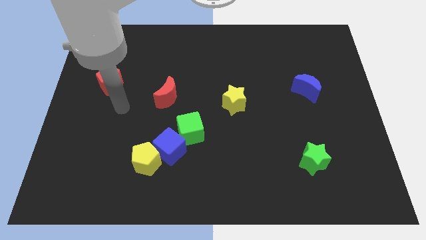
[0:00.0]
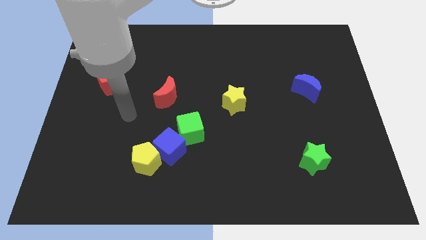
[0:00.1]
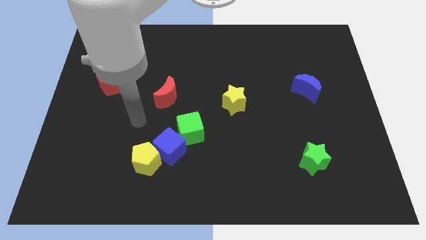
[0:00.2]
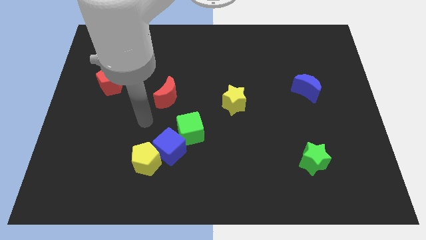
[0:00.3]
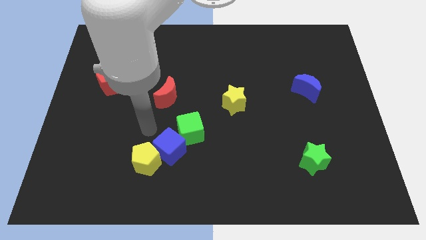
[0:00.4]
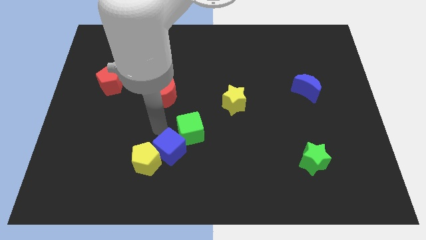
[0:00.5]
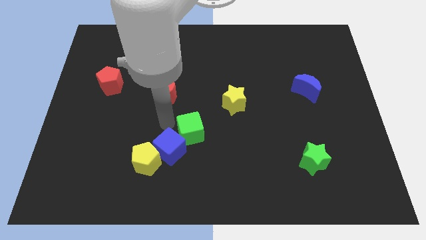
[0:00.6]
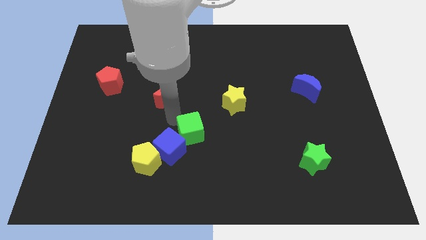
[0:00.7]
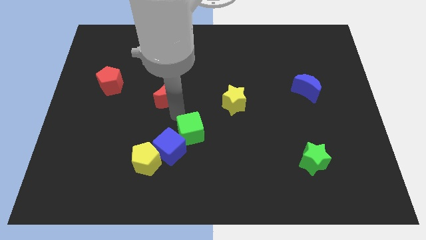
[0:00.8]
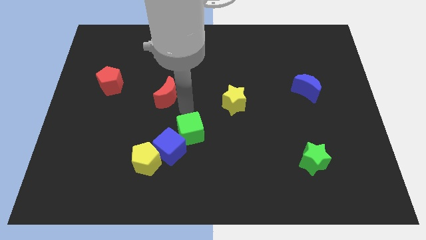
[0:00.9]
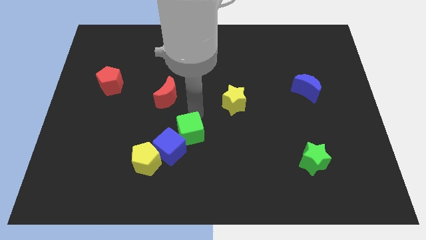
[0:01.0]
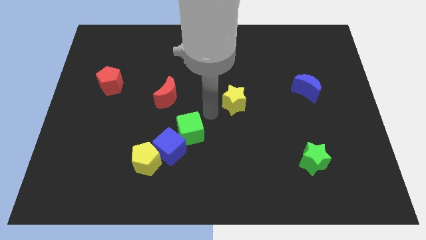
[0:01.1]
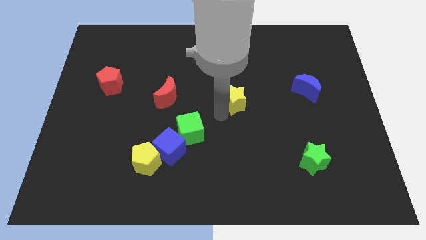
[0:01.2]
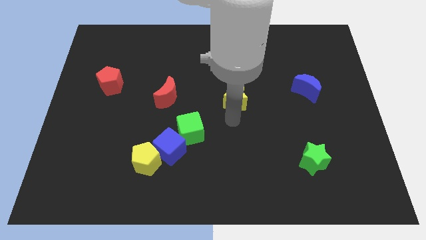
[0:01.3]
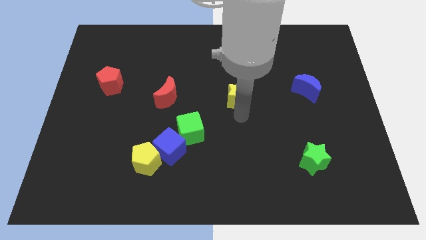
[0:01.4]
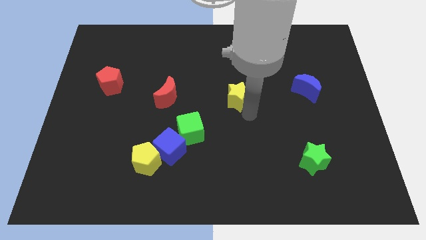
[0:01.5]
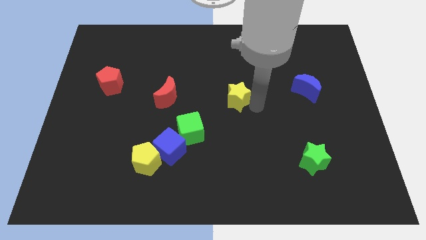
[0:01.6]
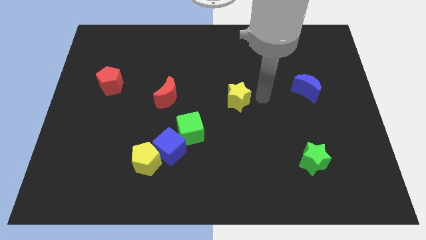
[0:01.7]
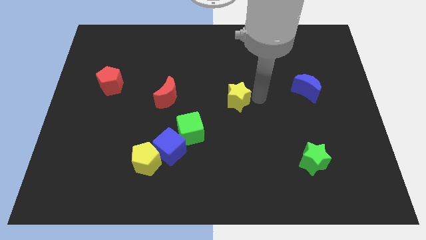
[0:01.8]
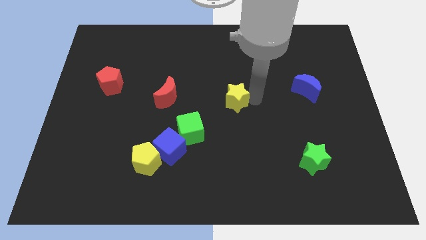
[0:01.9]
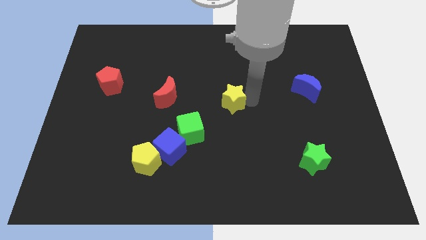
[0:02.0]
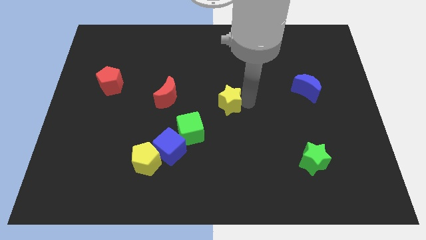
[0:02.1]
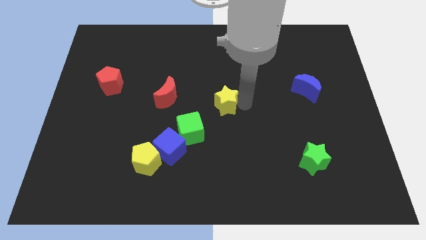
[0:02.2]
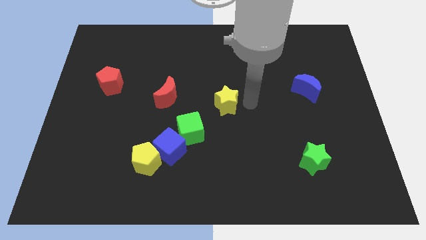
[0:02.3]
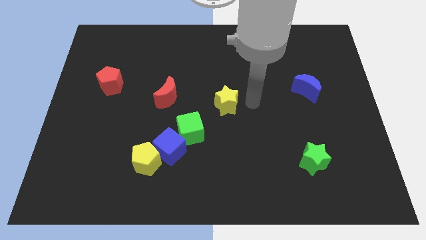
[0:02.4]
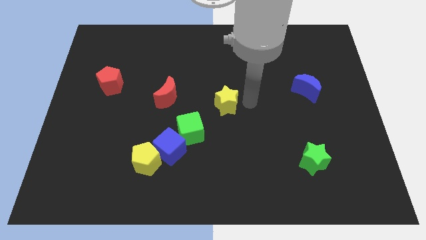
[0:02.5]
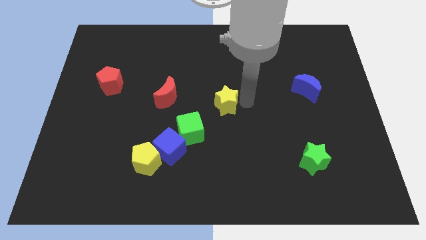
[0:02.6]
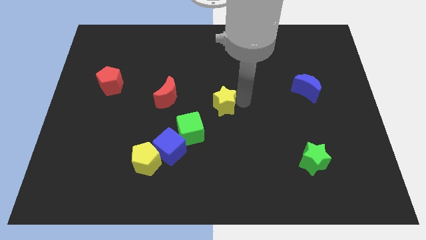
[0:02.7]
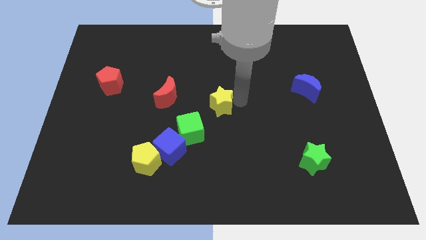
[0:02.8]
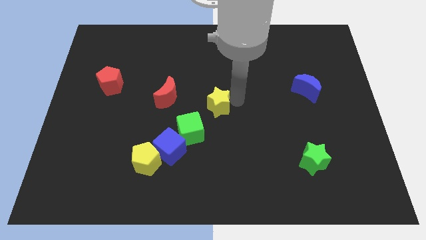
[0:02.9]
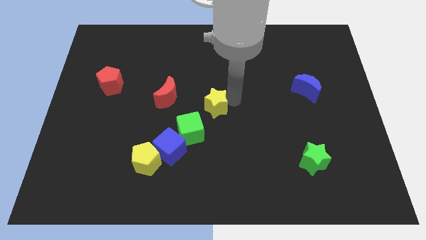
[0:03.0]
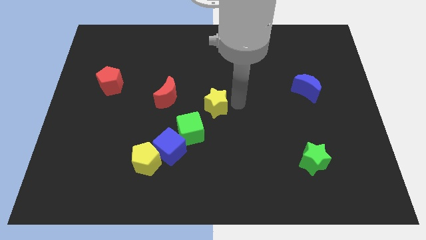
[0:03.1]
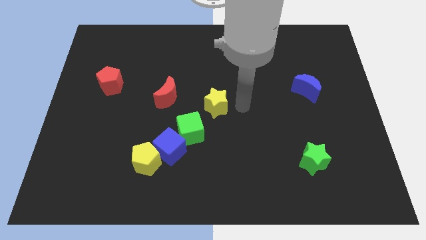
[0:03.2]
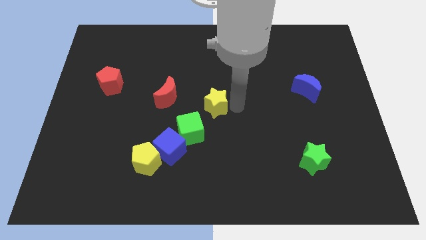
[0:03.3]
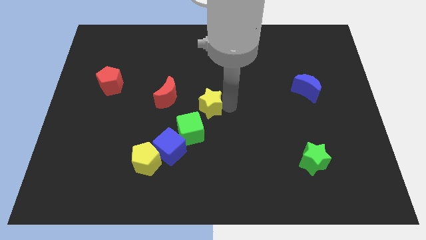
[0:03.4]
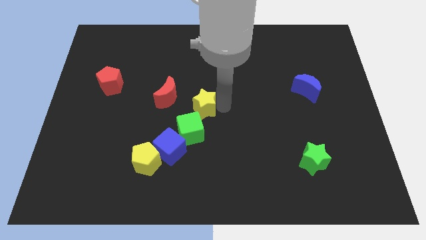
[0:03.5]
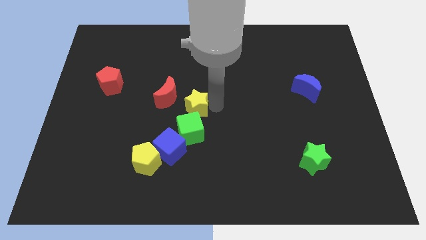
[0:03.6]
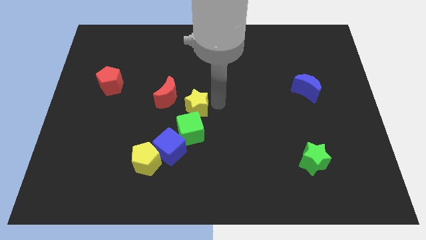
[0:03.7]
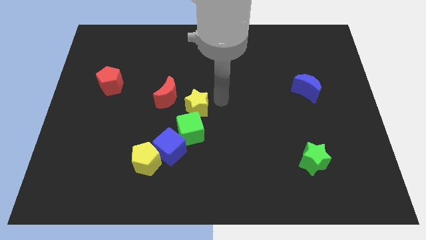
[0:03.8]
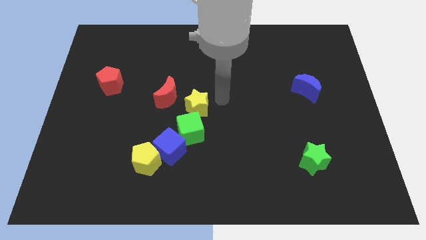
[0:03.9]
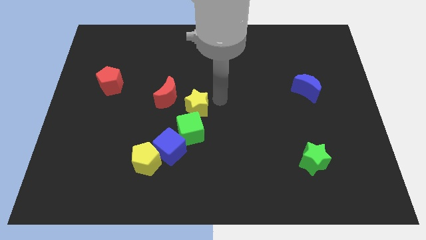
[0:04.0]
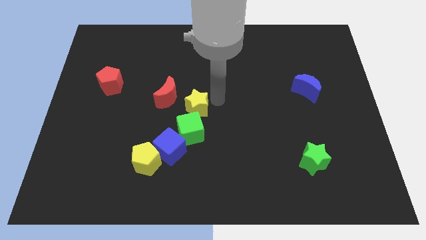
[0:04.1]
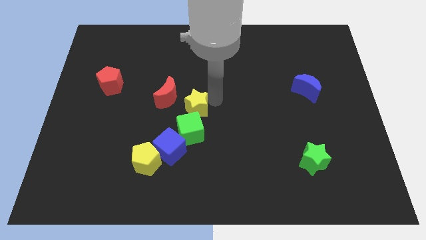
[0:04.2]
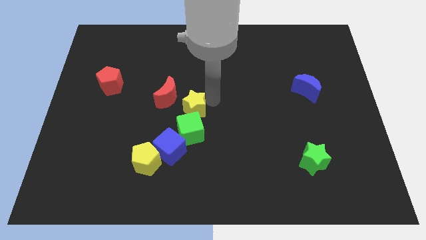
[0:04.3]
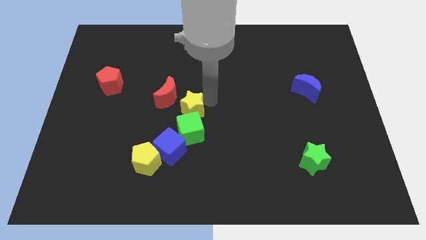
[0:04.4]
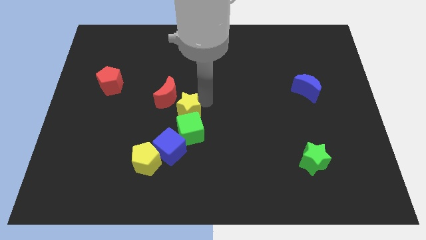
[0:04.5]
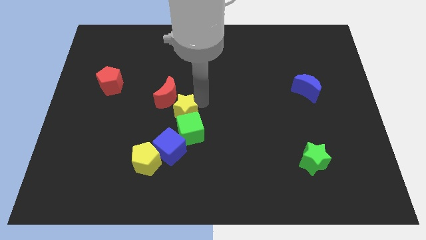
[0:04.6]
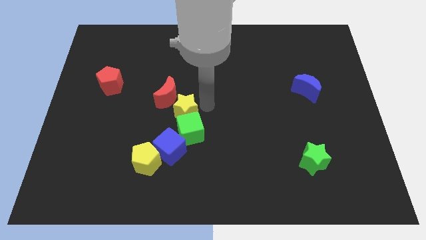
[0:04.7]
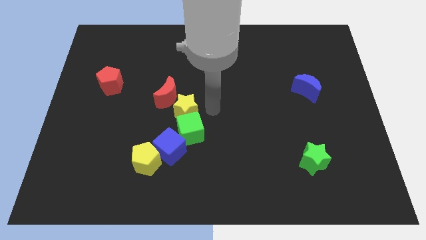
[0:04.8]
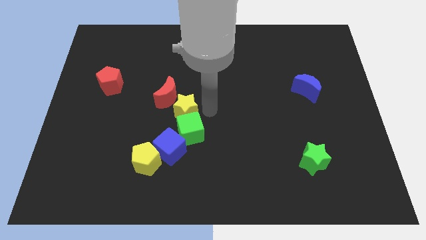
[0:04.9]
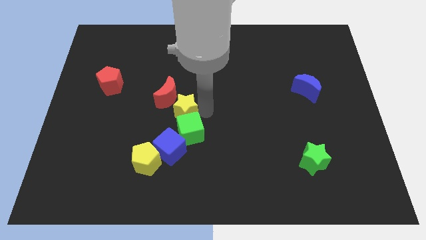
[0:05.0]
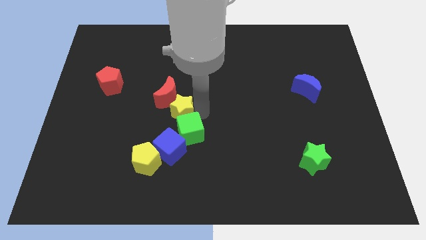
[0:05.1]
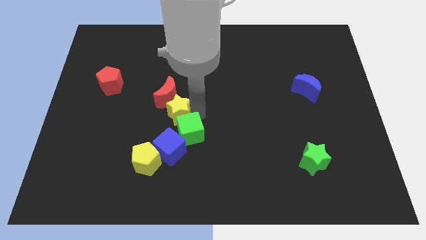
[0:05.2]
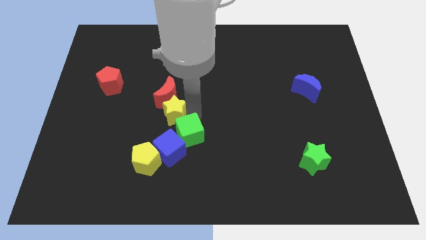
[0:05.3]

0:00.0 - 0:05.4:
move the yellow star to the bottom left side of the red moon

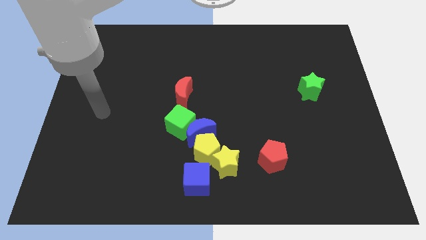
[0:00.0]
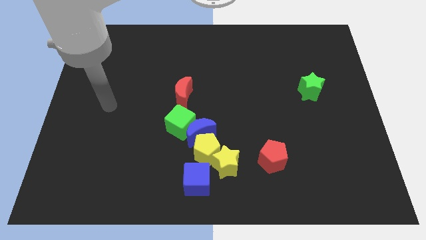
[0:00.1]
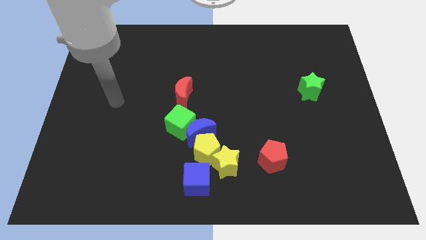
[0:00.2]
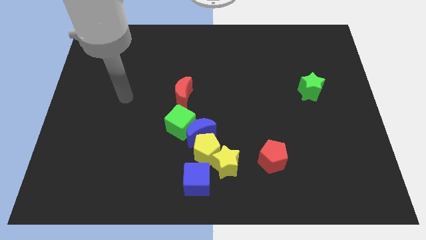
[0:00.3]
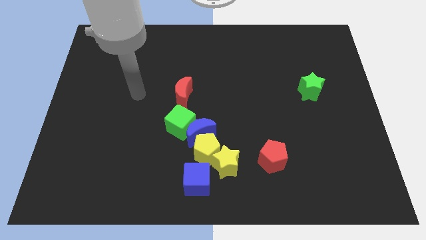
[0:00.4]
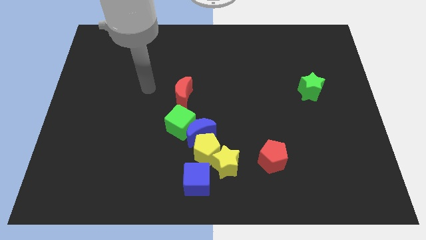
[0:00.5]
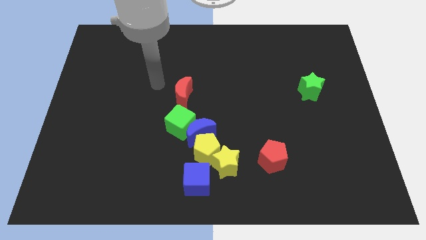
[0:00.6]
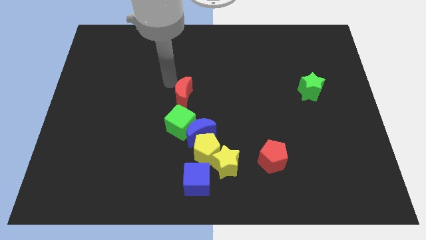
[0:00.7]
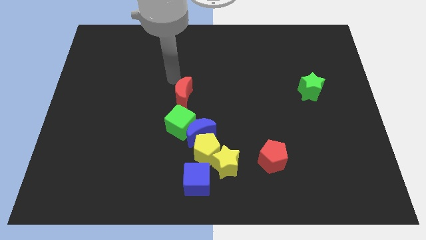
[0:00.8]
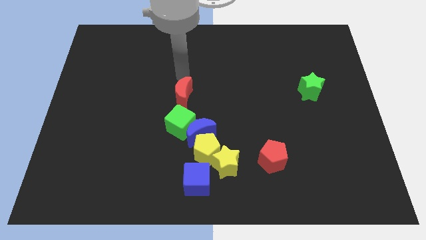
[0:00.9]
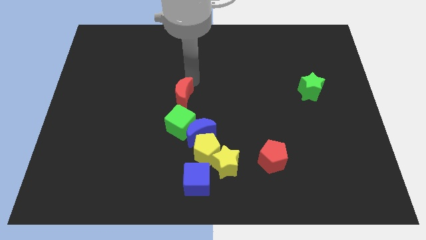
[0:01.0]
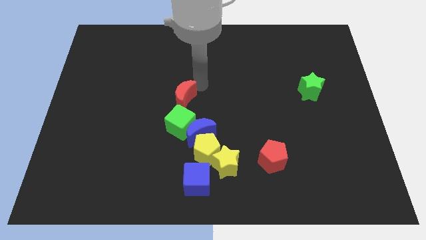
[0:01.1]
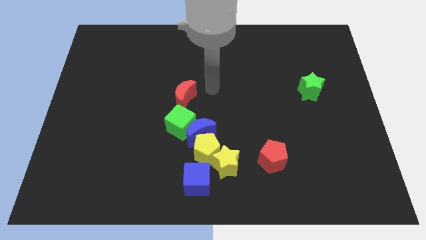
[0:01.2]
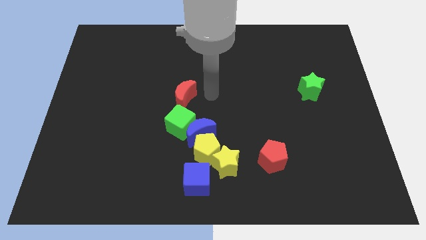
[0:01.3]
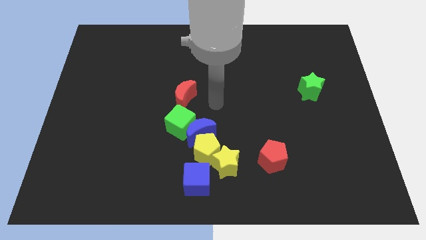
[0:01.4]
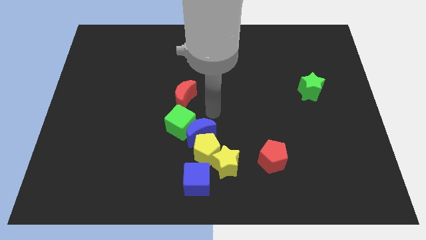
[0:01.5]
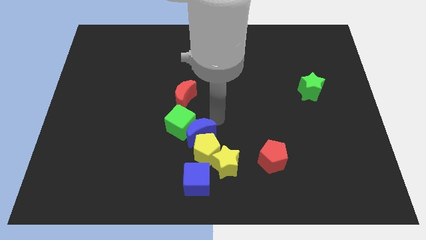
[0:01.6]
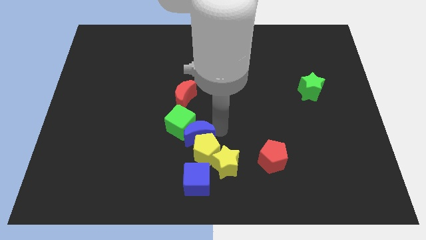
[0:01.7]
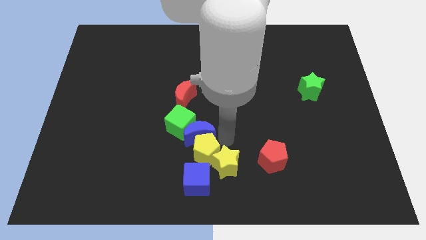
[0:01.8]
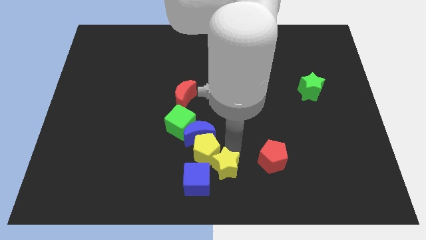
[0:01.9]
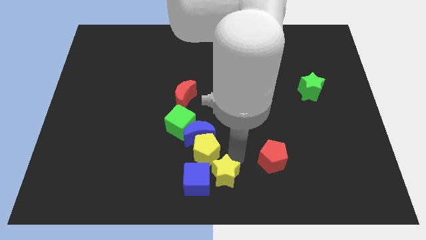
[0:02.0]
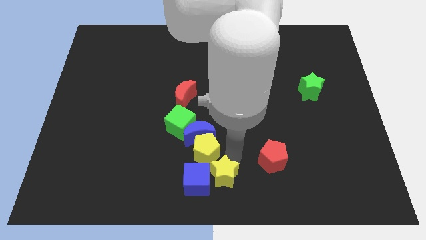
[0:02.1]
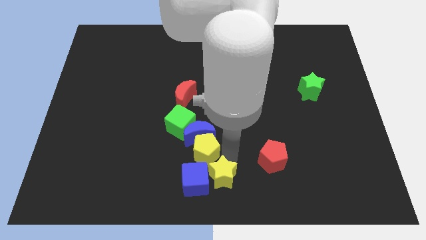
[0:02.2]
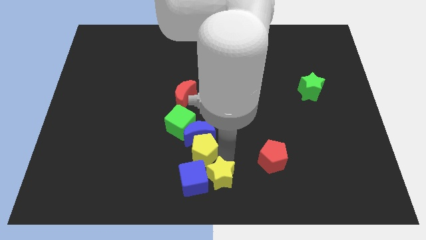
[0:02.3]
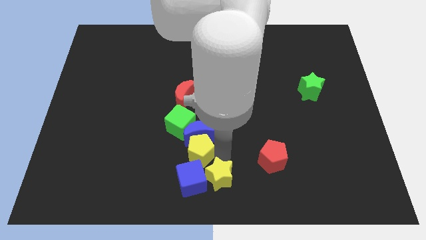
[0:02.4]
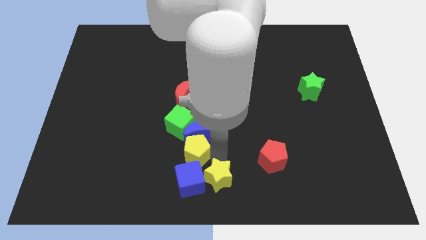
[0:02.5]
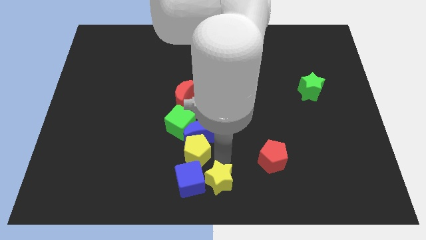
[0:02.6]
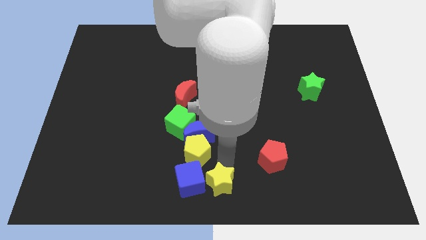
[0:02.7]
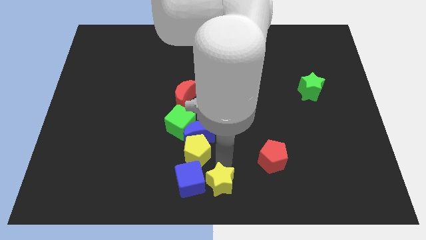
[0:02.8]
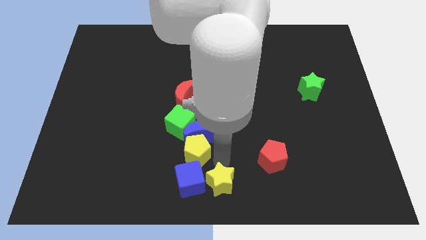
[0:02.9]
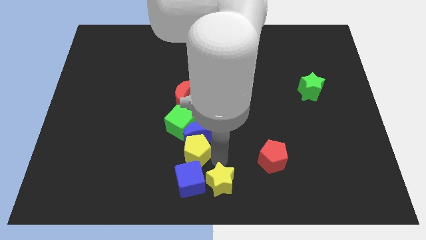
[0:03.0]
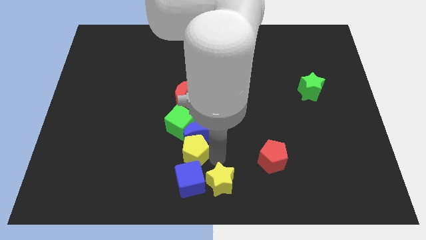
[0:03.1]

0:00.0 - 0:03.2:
push the yellow pentagon to the bottom of the red moon
